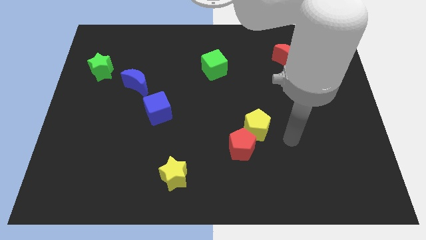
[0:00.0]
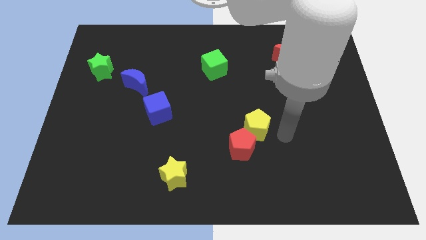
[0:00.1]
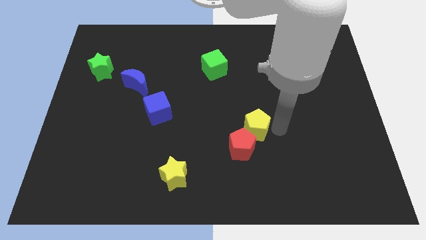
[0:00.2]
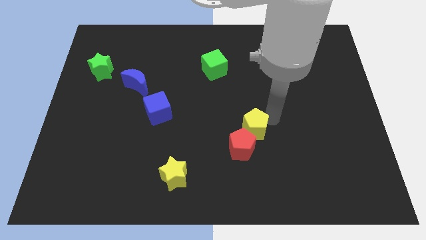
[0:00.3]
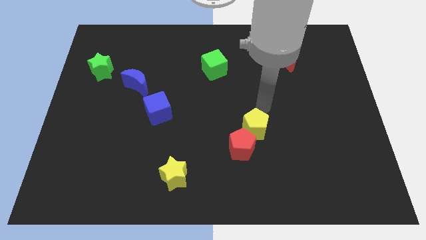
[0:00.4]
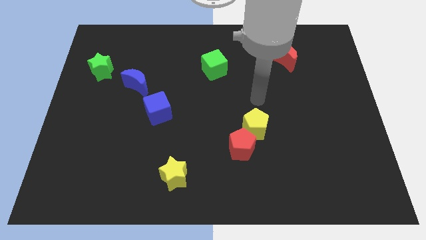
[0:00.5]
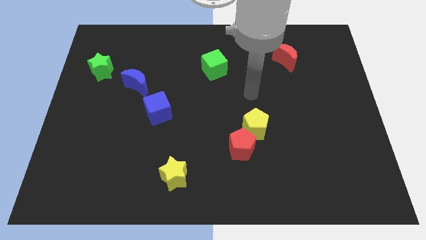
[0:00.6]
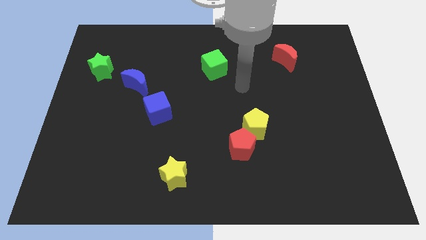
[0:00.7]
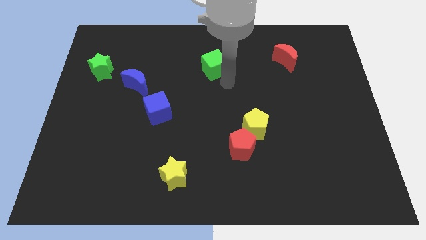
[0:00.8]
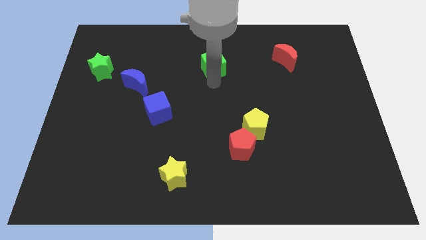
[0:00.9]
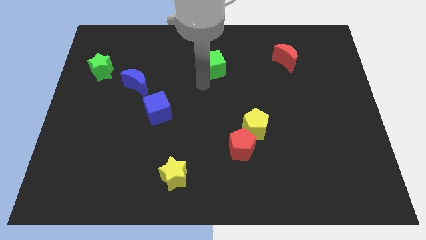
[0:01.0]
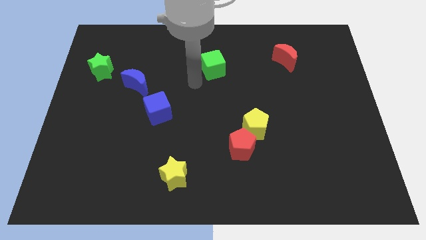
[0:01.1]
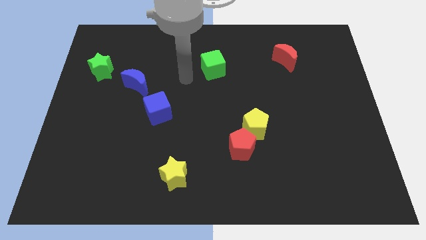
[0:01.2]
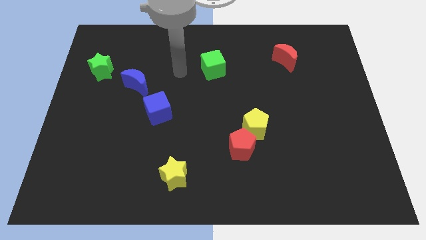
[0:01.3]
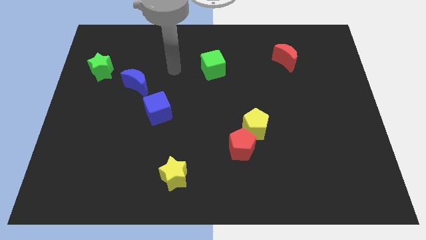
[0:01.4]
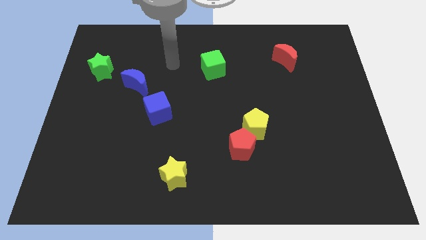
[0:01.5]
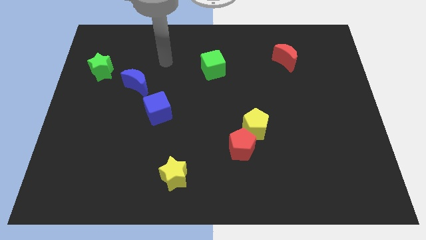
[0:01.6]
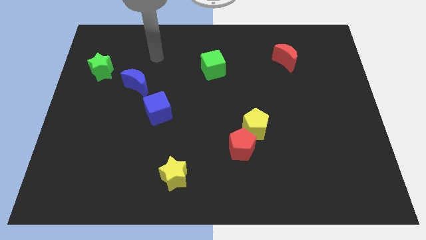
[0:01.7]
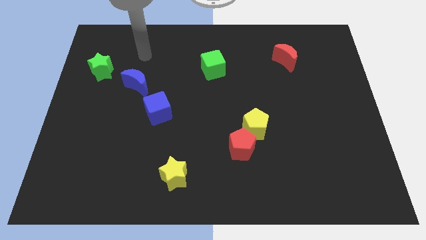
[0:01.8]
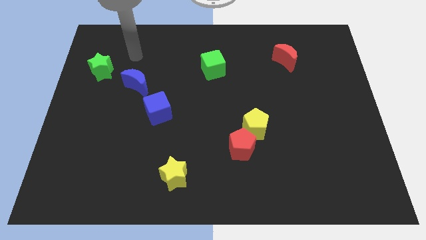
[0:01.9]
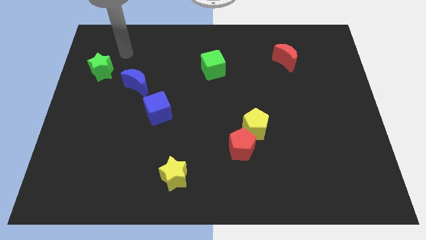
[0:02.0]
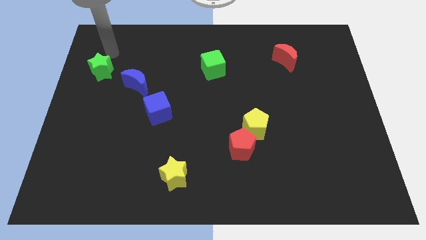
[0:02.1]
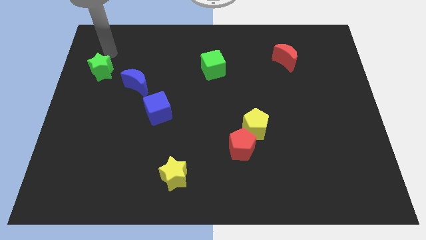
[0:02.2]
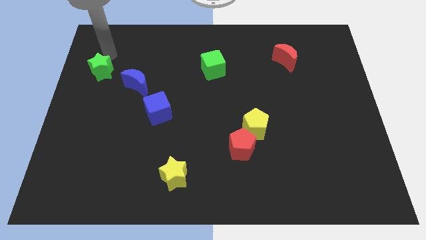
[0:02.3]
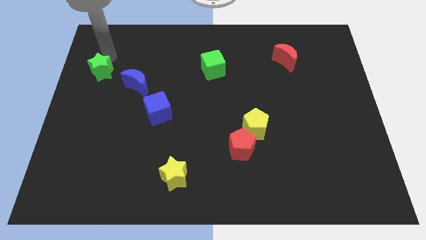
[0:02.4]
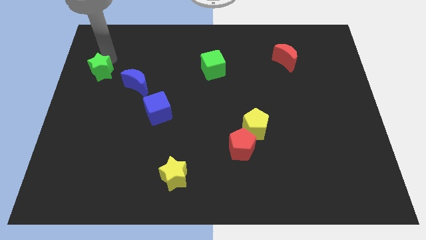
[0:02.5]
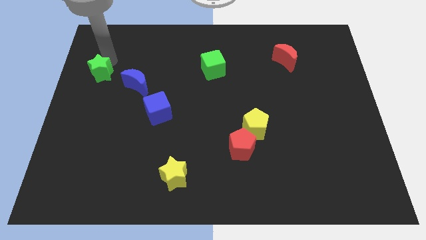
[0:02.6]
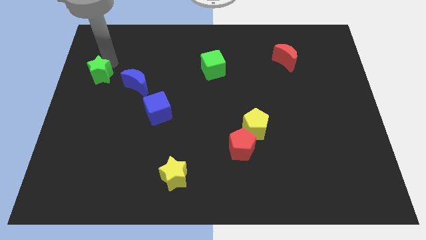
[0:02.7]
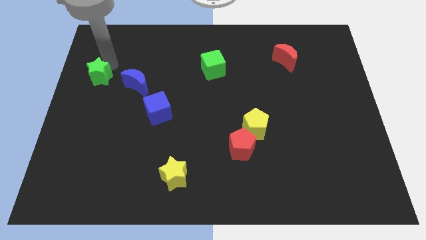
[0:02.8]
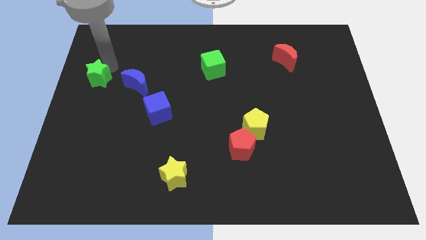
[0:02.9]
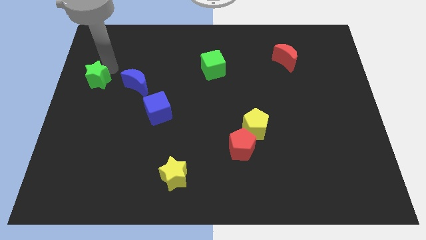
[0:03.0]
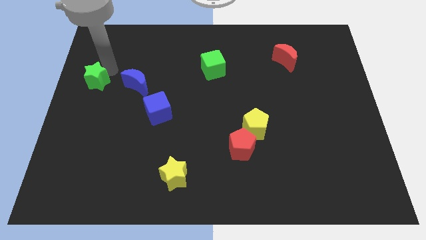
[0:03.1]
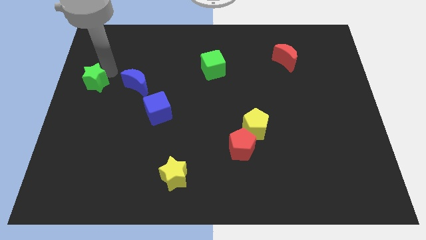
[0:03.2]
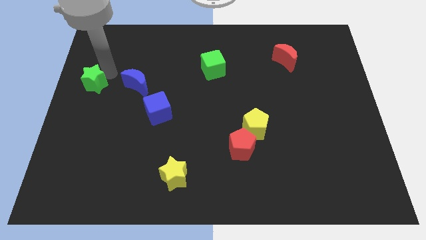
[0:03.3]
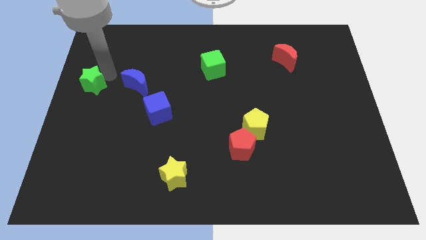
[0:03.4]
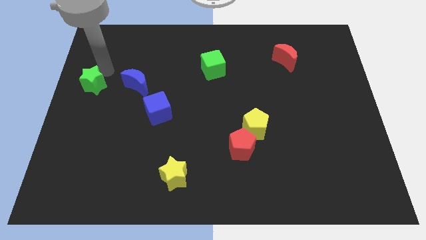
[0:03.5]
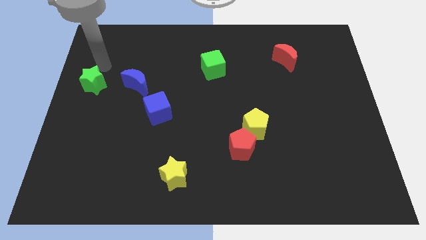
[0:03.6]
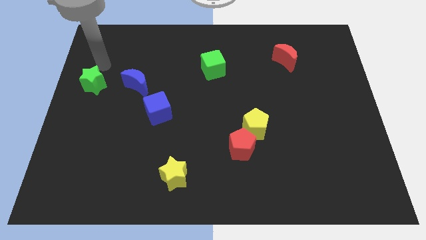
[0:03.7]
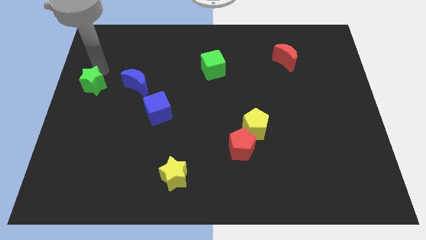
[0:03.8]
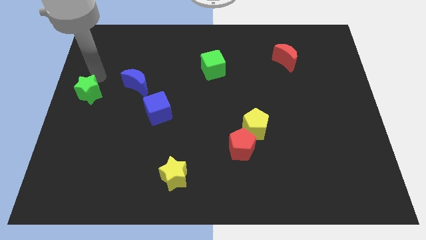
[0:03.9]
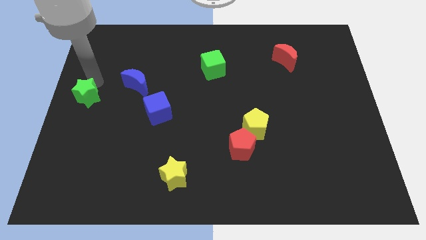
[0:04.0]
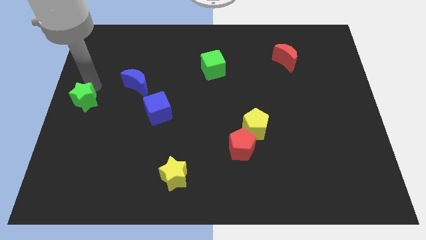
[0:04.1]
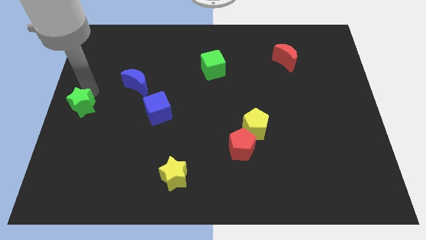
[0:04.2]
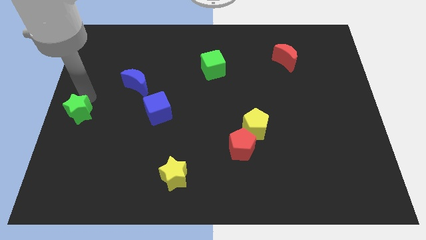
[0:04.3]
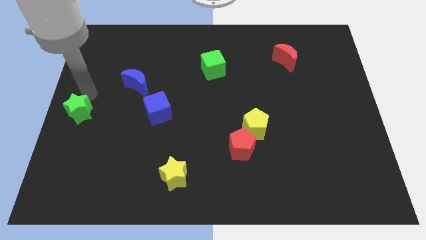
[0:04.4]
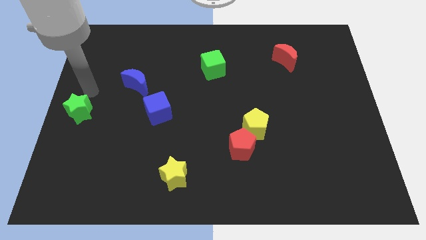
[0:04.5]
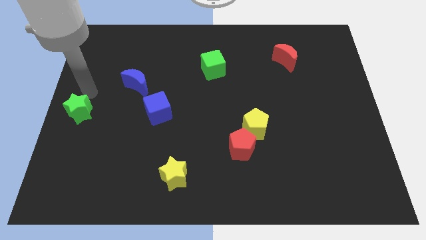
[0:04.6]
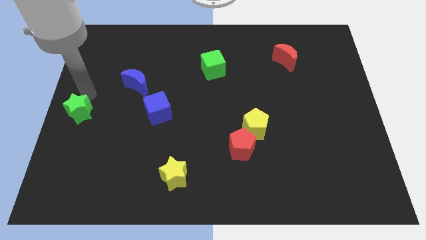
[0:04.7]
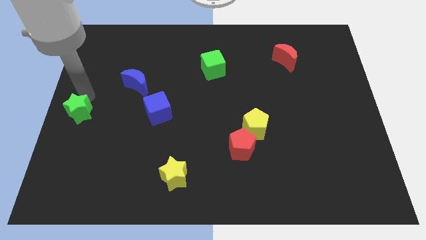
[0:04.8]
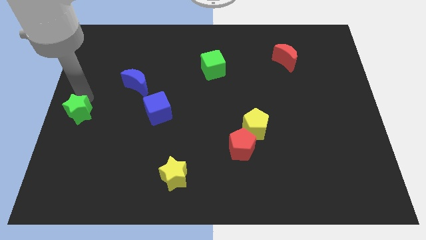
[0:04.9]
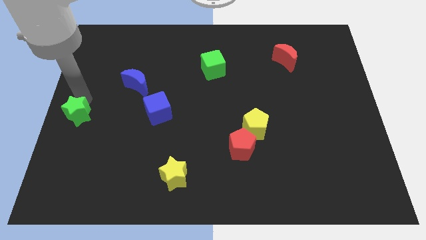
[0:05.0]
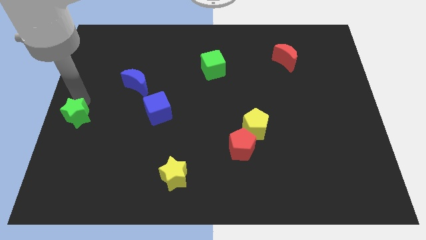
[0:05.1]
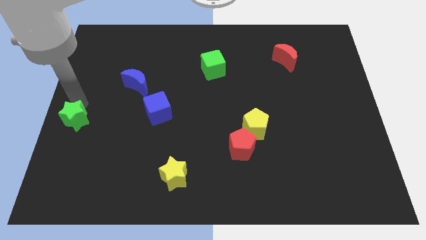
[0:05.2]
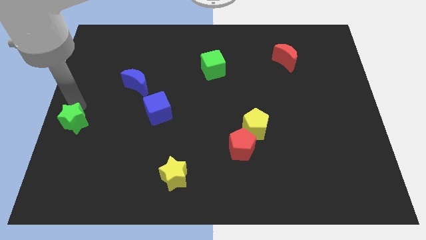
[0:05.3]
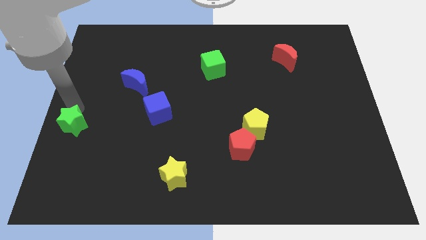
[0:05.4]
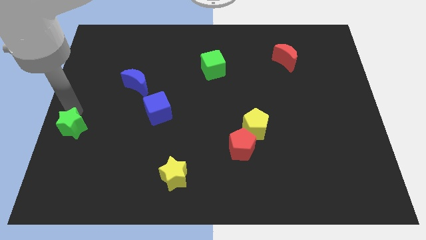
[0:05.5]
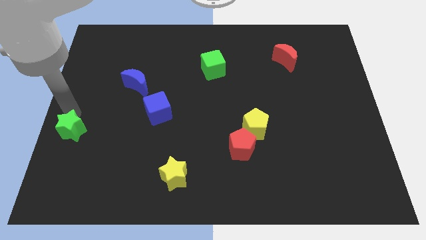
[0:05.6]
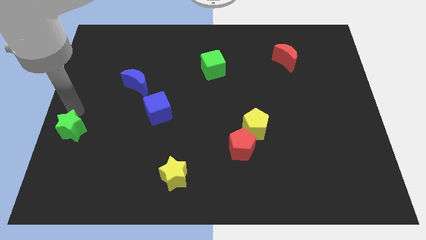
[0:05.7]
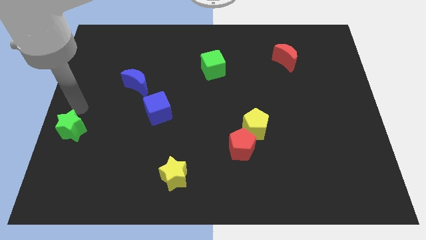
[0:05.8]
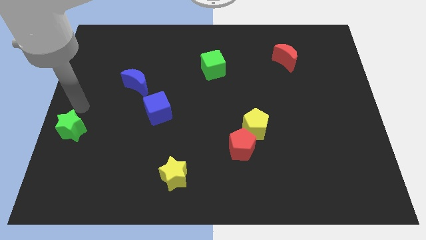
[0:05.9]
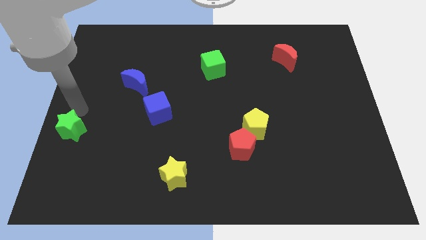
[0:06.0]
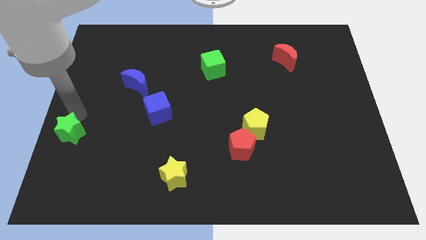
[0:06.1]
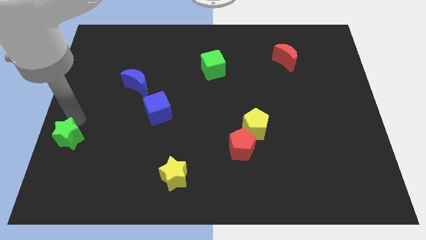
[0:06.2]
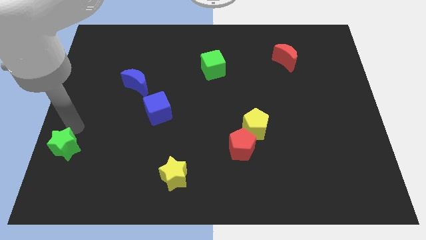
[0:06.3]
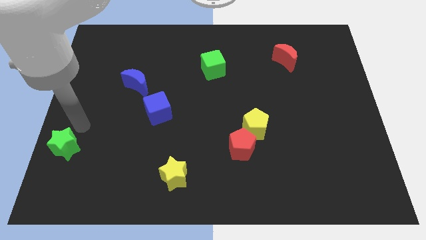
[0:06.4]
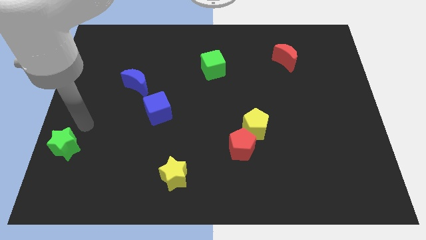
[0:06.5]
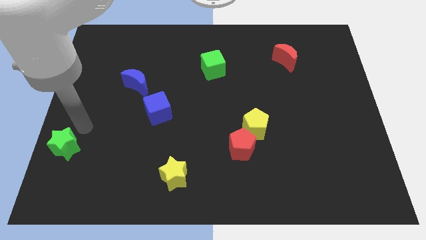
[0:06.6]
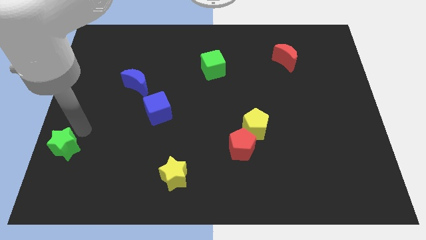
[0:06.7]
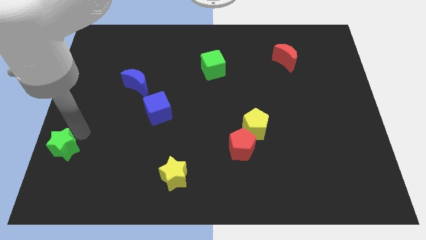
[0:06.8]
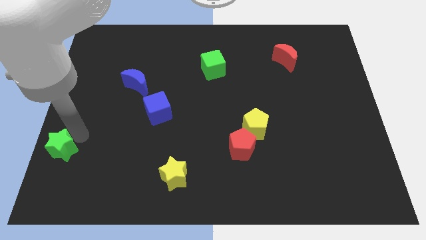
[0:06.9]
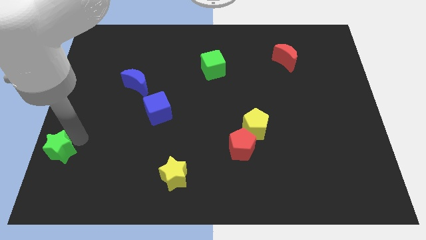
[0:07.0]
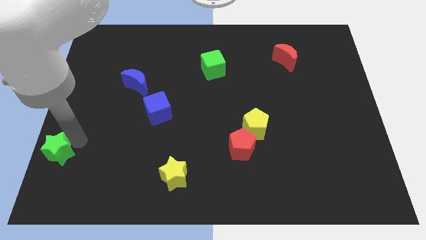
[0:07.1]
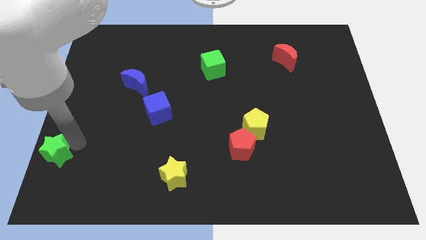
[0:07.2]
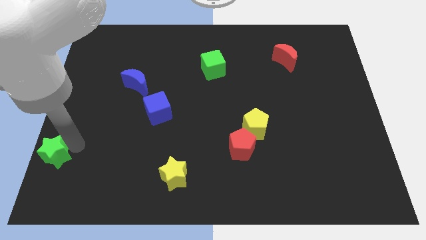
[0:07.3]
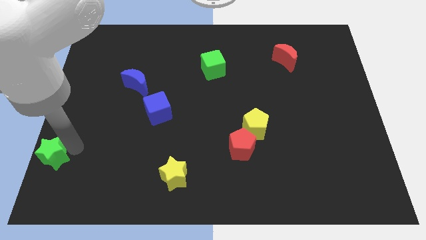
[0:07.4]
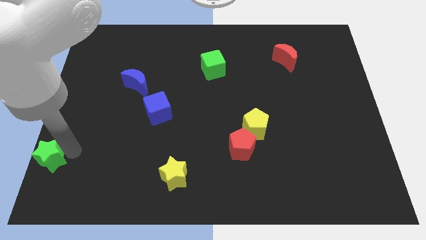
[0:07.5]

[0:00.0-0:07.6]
slide the green star to the bottom left
